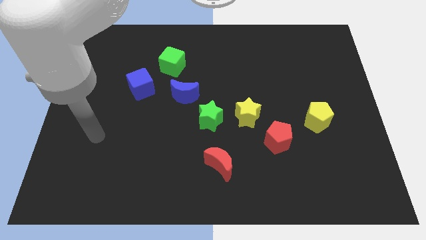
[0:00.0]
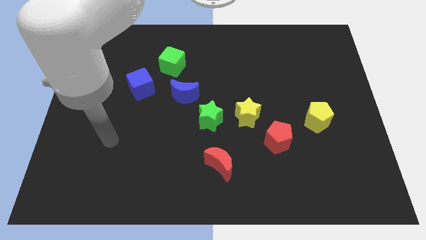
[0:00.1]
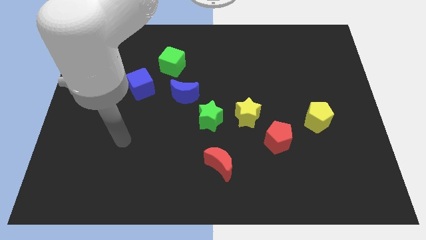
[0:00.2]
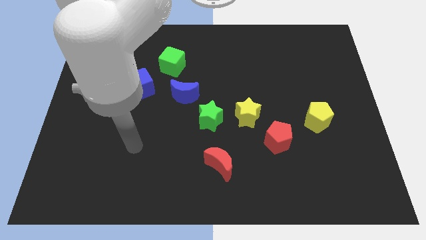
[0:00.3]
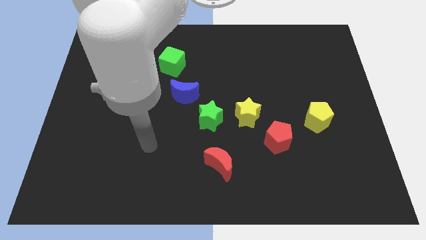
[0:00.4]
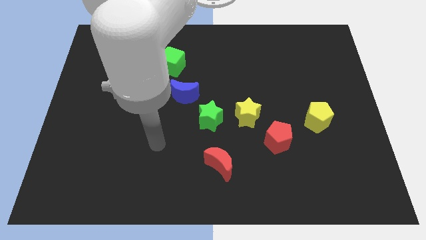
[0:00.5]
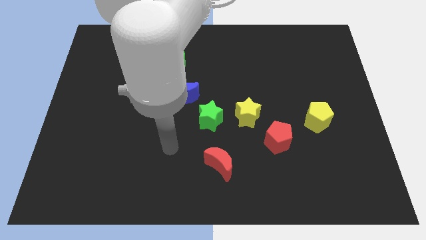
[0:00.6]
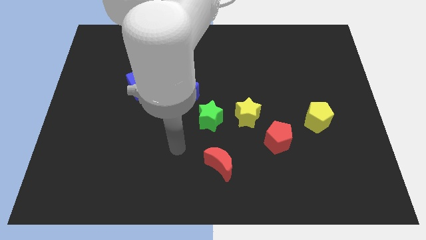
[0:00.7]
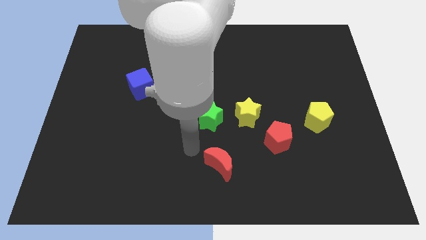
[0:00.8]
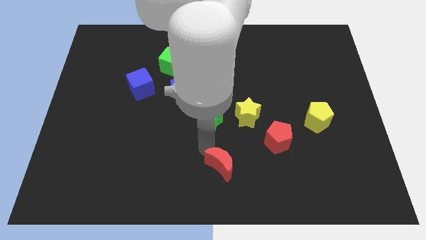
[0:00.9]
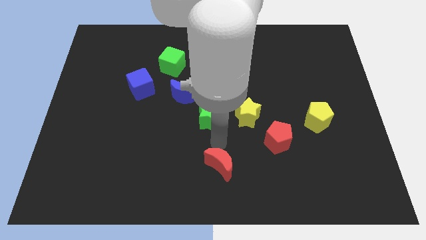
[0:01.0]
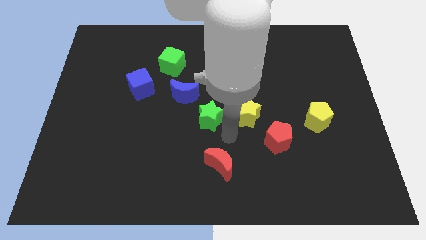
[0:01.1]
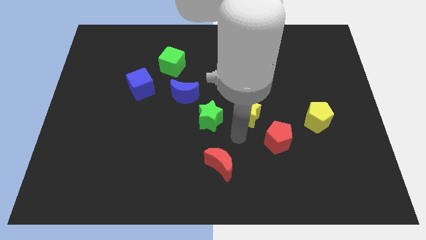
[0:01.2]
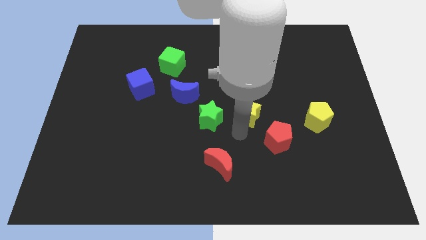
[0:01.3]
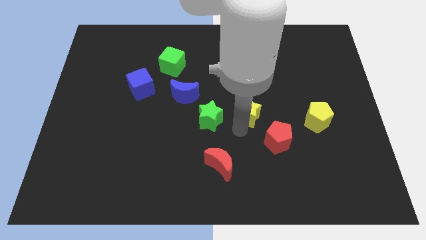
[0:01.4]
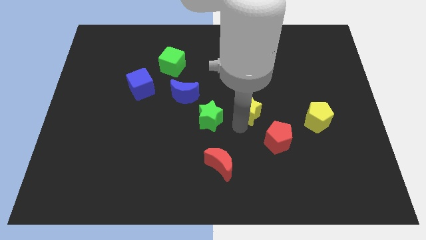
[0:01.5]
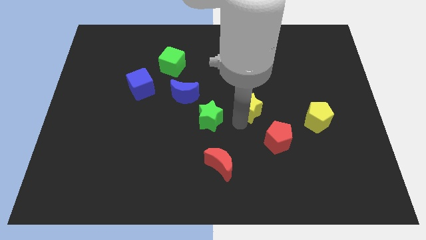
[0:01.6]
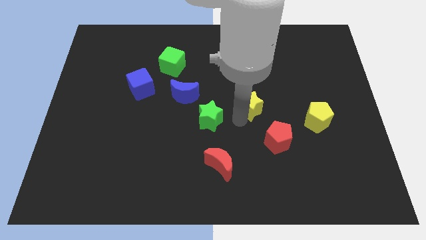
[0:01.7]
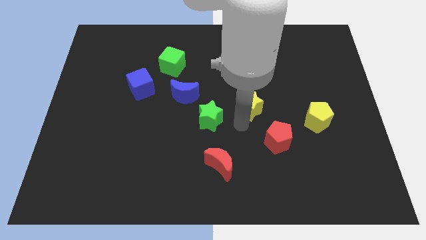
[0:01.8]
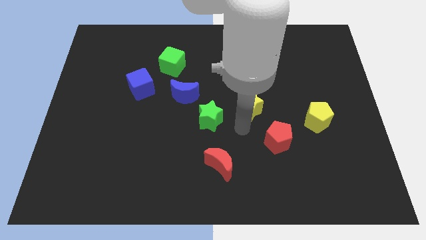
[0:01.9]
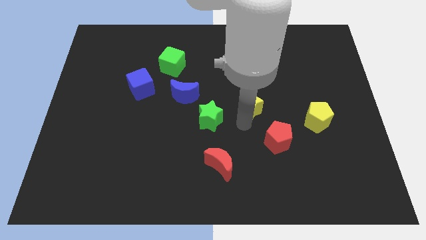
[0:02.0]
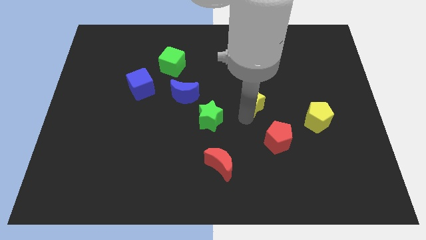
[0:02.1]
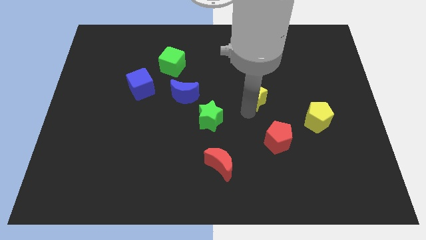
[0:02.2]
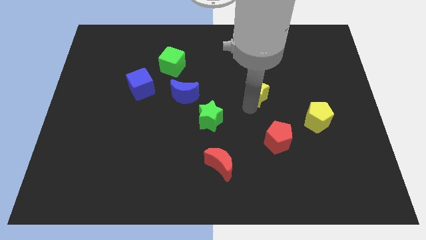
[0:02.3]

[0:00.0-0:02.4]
move the yellow star away from the green star and red pentagon

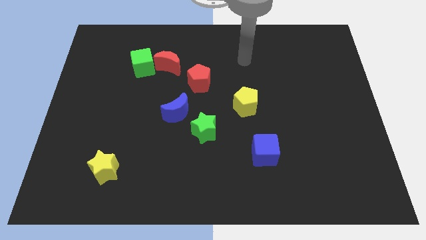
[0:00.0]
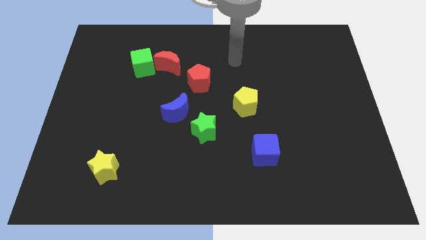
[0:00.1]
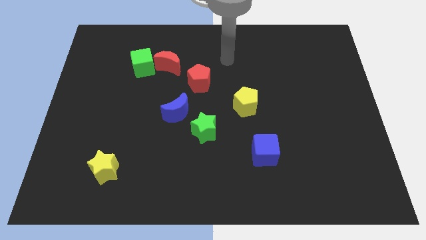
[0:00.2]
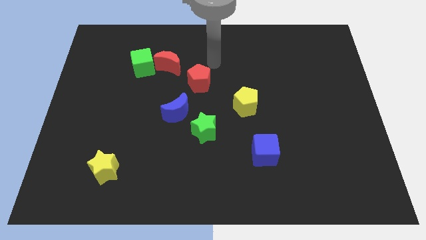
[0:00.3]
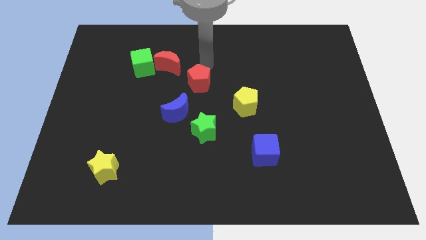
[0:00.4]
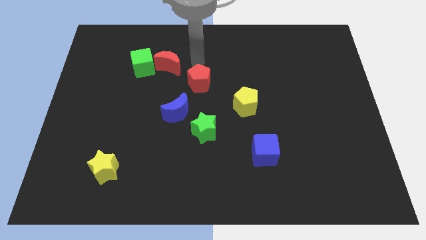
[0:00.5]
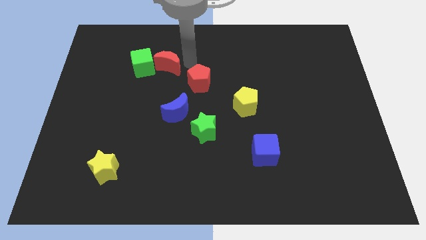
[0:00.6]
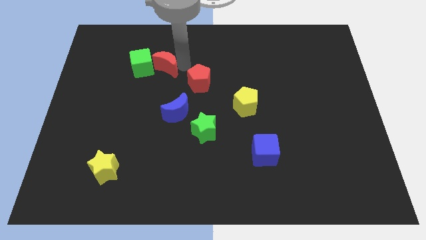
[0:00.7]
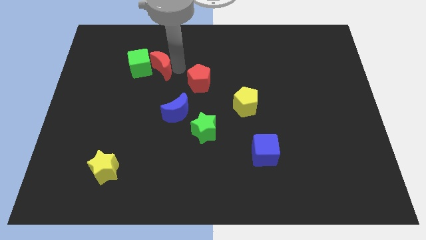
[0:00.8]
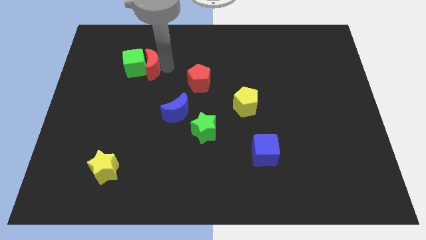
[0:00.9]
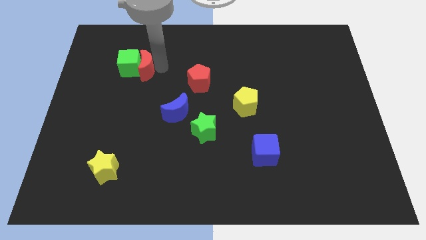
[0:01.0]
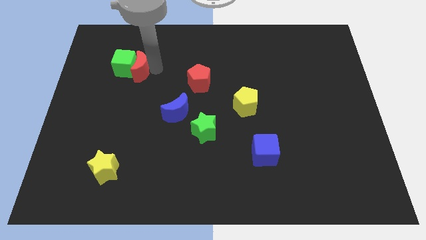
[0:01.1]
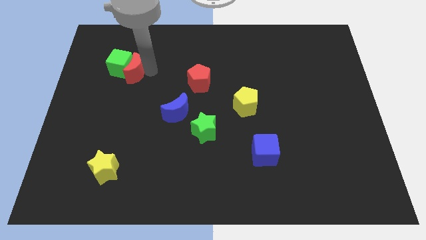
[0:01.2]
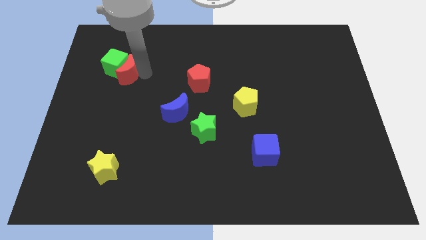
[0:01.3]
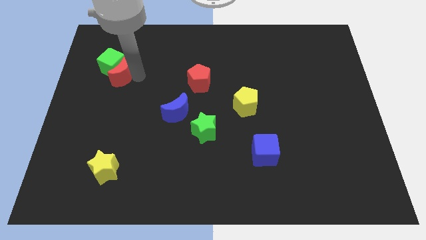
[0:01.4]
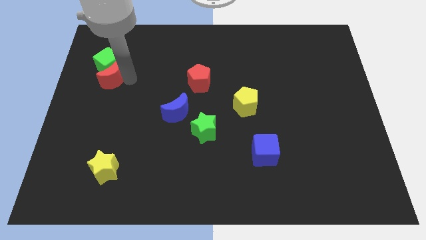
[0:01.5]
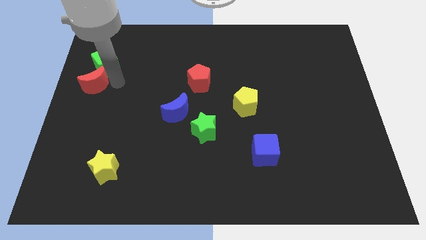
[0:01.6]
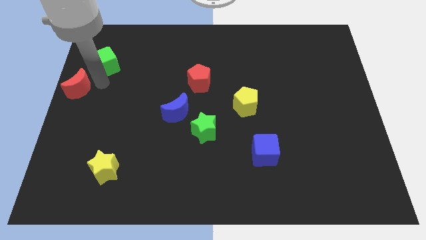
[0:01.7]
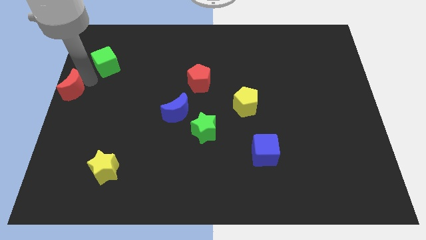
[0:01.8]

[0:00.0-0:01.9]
pull the green cube apart from the red moon

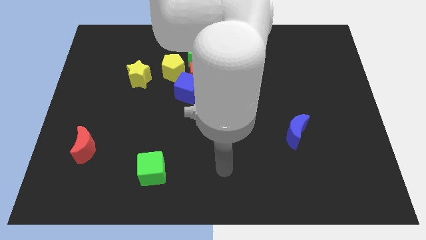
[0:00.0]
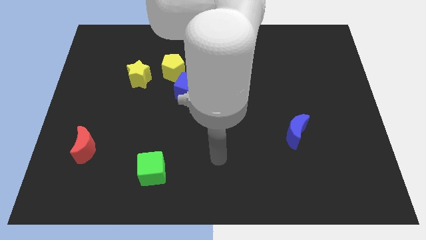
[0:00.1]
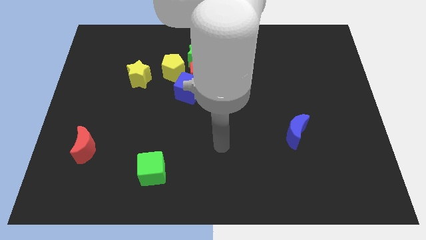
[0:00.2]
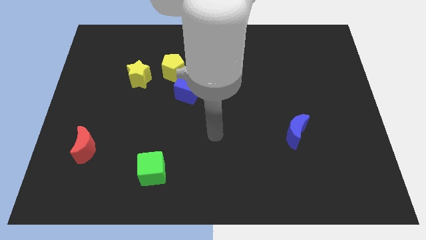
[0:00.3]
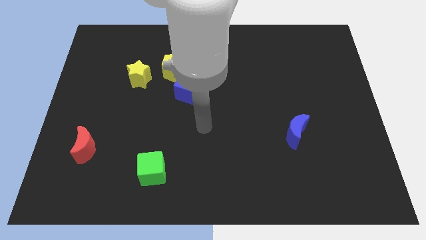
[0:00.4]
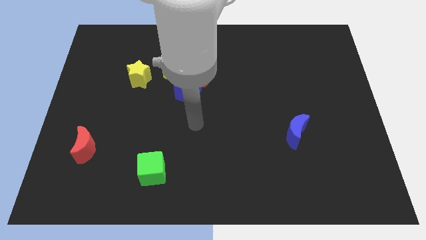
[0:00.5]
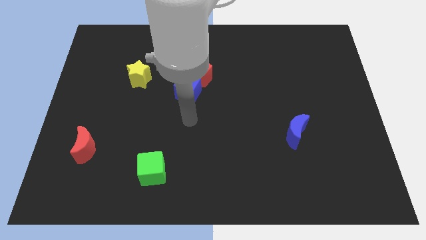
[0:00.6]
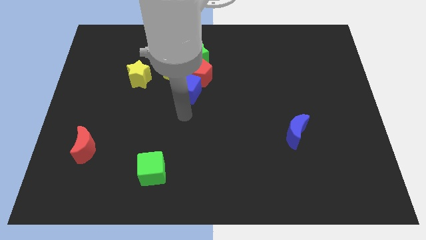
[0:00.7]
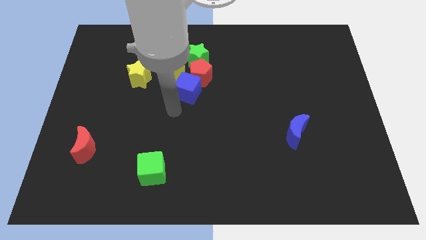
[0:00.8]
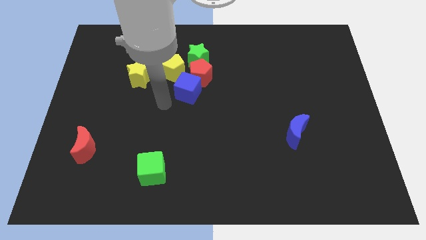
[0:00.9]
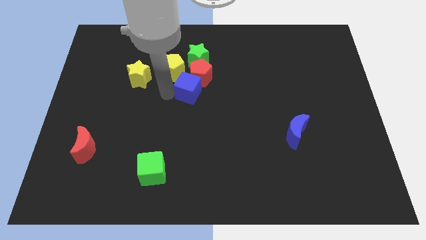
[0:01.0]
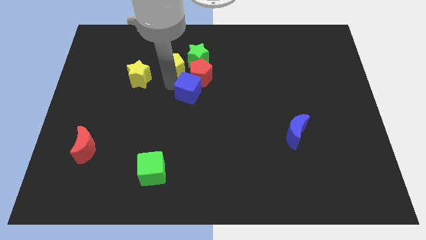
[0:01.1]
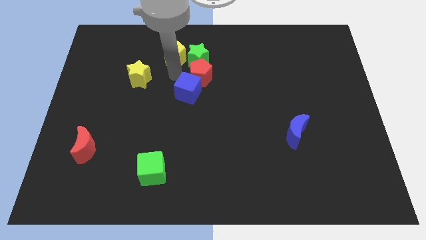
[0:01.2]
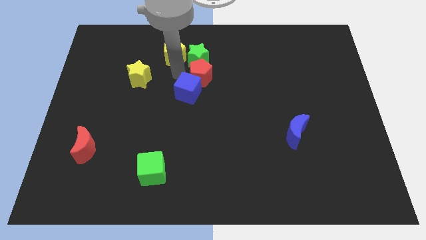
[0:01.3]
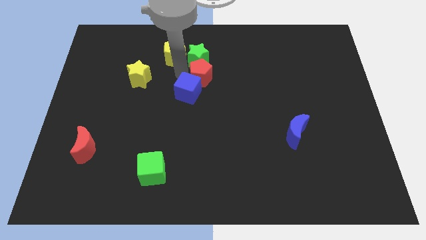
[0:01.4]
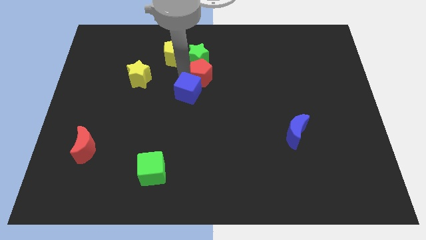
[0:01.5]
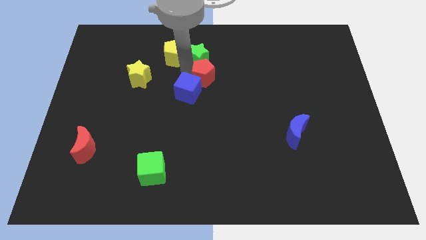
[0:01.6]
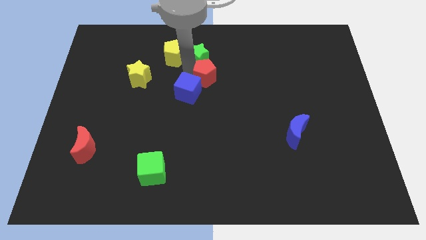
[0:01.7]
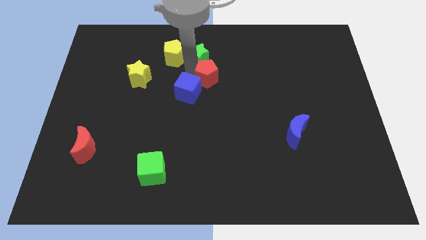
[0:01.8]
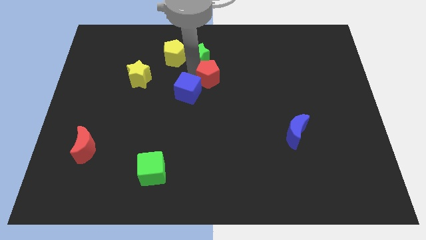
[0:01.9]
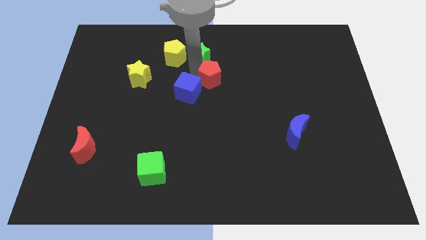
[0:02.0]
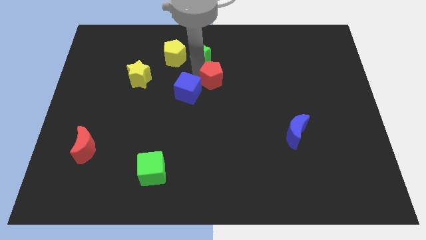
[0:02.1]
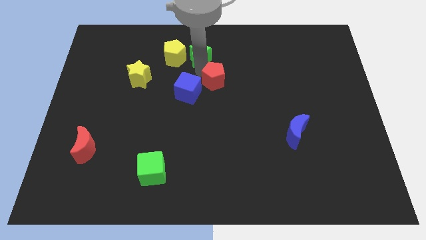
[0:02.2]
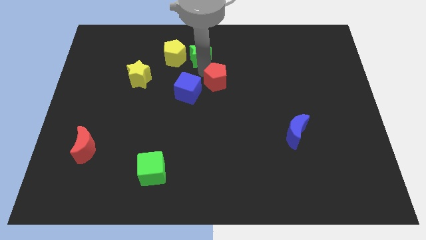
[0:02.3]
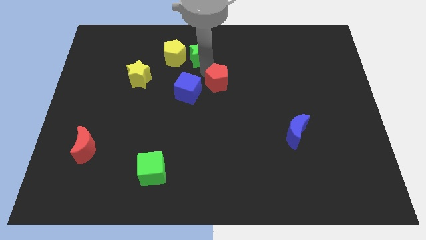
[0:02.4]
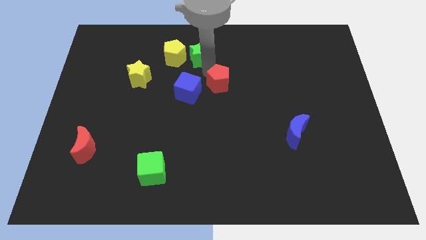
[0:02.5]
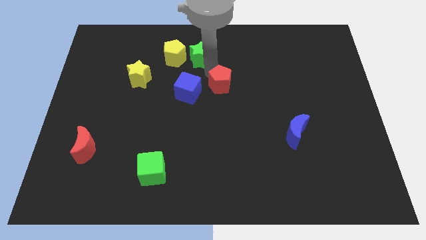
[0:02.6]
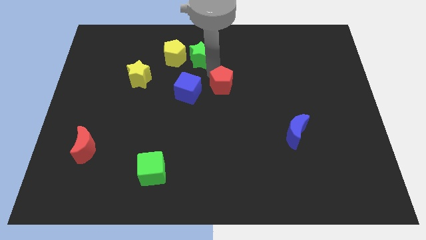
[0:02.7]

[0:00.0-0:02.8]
move the red pentagon away from the group

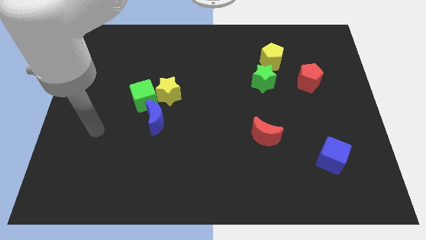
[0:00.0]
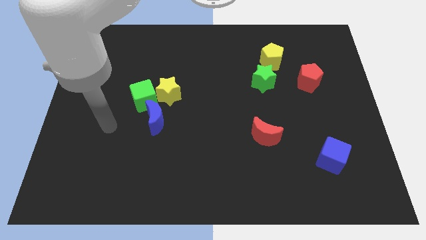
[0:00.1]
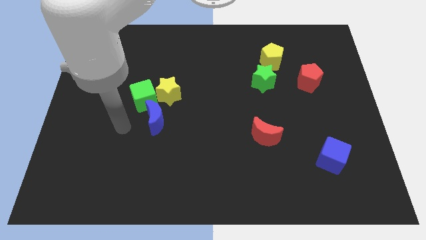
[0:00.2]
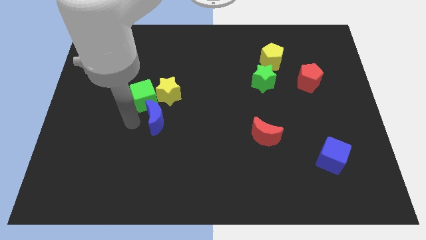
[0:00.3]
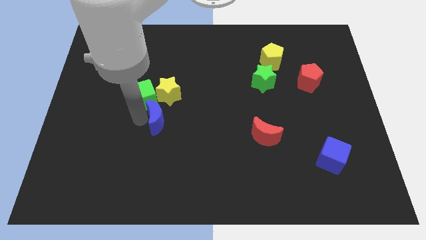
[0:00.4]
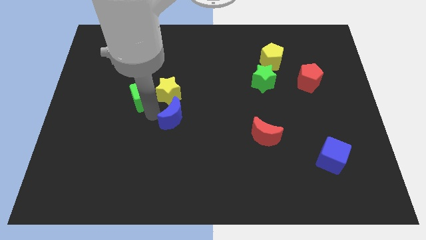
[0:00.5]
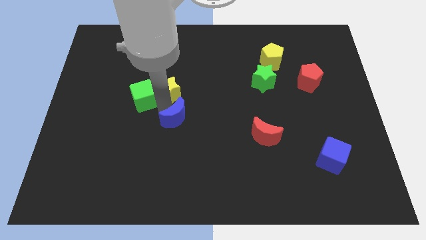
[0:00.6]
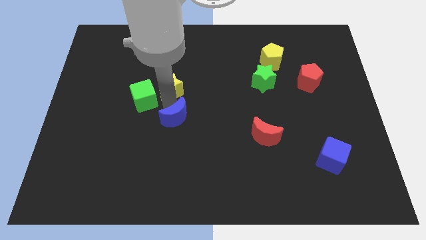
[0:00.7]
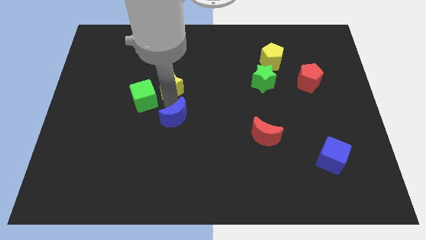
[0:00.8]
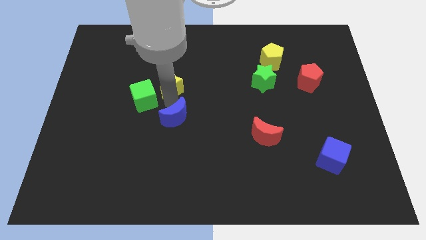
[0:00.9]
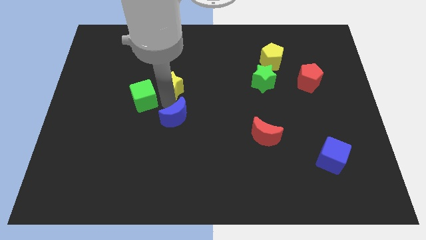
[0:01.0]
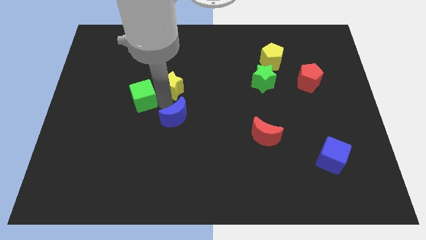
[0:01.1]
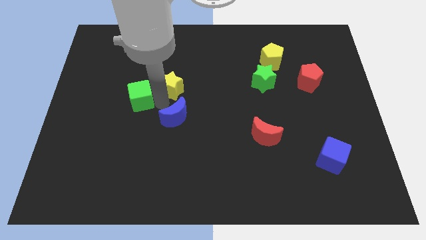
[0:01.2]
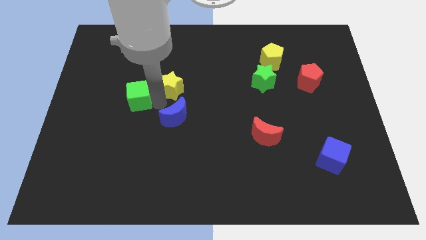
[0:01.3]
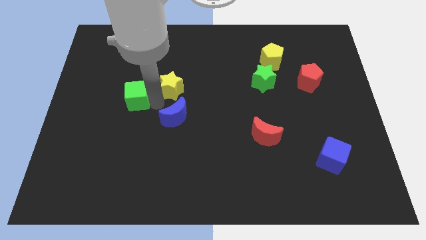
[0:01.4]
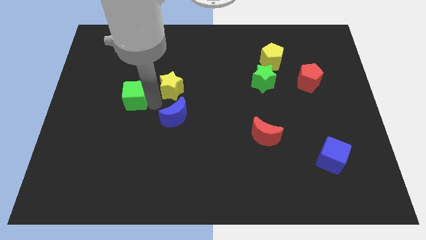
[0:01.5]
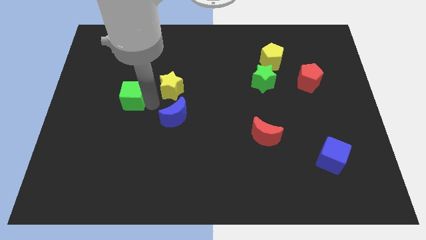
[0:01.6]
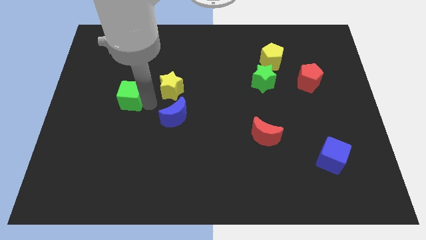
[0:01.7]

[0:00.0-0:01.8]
separate the green cube from the yellow star and blue moon

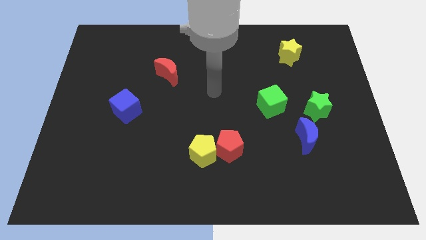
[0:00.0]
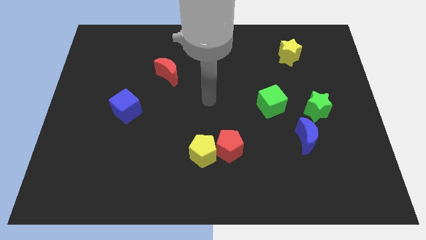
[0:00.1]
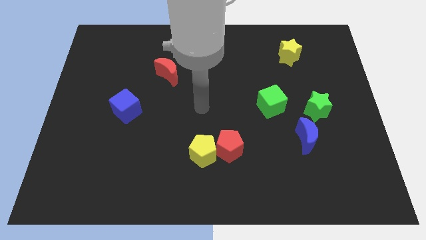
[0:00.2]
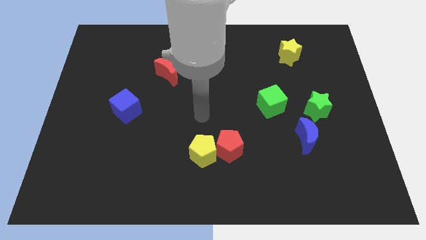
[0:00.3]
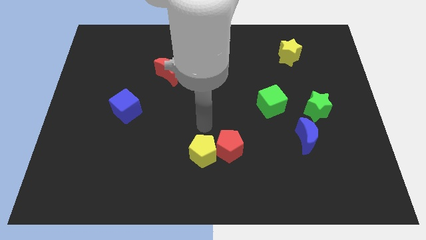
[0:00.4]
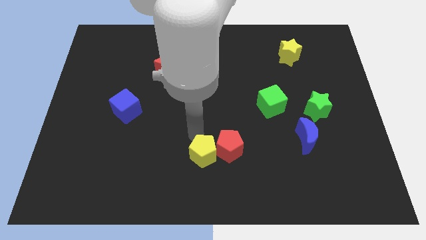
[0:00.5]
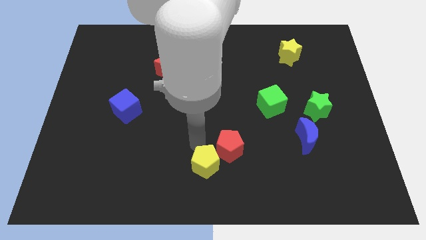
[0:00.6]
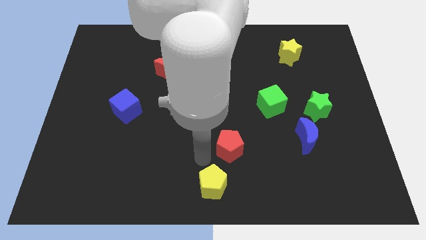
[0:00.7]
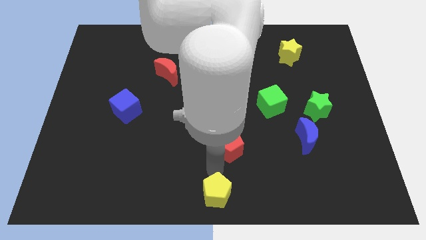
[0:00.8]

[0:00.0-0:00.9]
pull the red pentagon apart from the yellow pentagon
